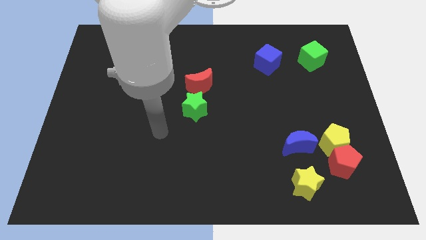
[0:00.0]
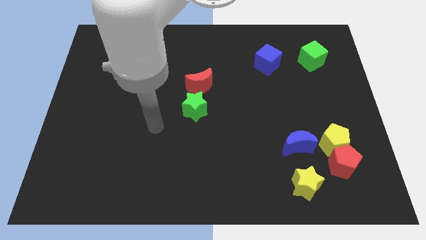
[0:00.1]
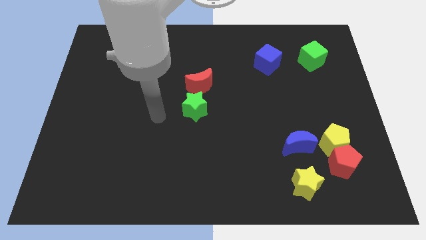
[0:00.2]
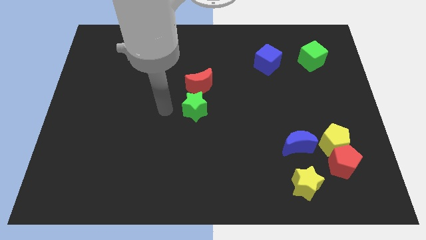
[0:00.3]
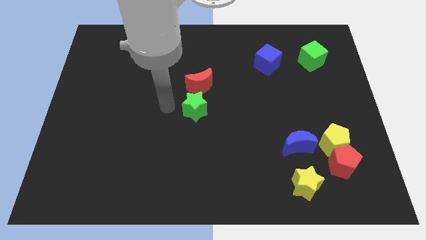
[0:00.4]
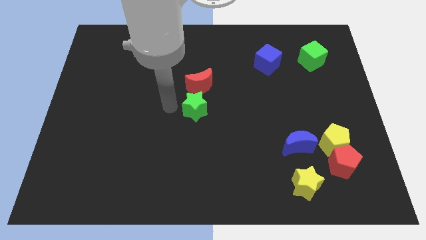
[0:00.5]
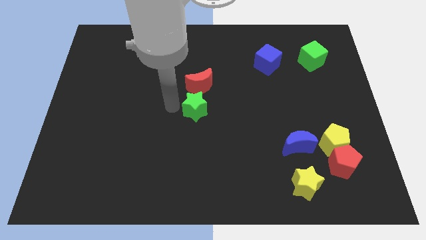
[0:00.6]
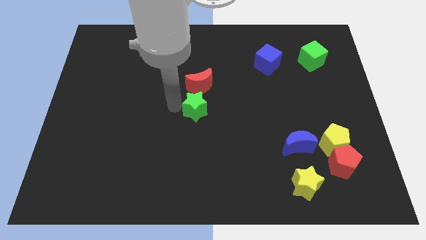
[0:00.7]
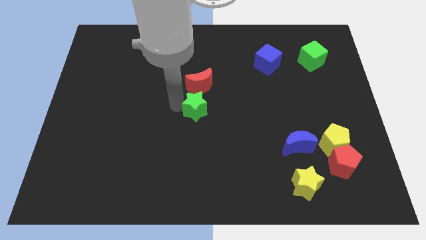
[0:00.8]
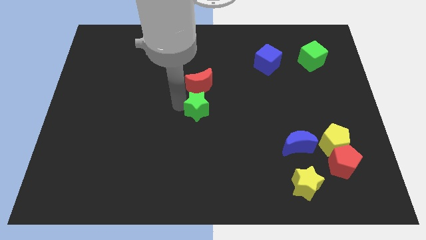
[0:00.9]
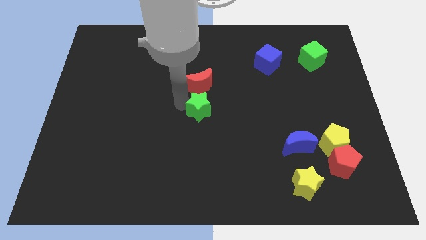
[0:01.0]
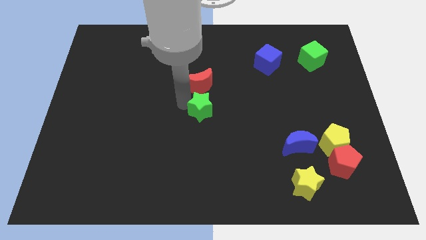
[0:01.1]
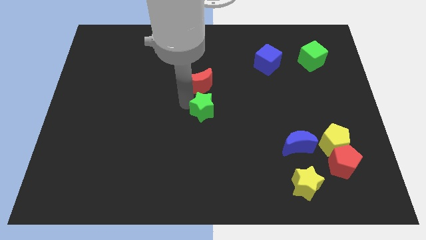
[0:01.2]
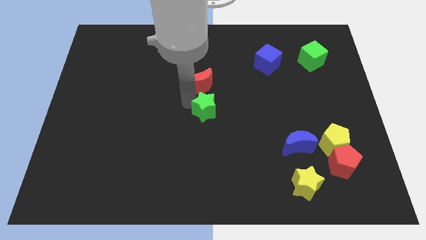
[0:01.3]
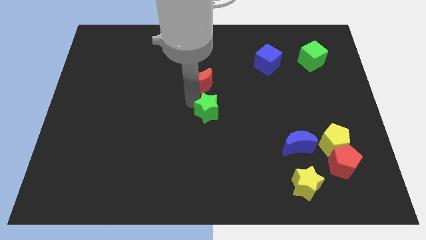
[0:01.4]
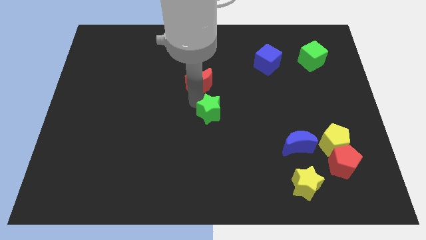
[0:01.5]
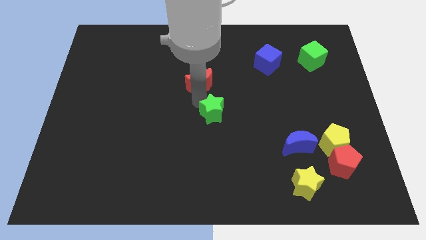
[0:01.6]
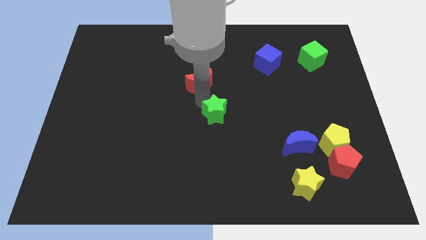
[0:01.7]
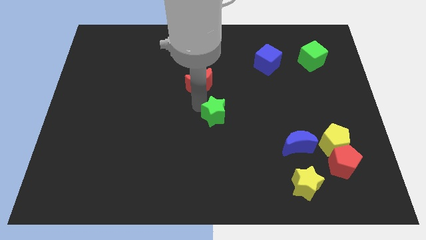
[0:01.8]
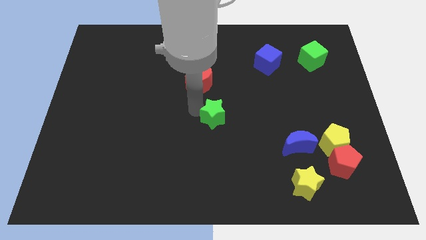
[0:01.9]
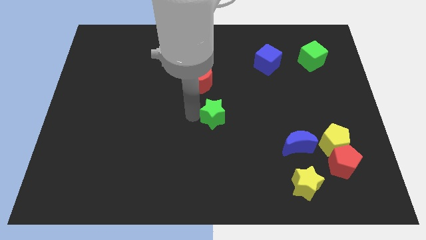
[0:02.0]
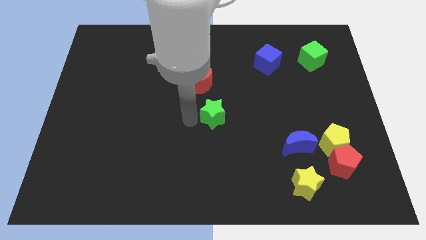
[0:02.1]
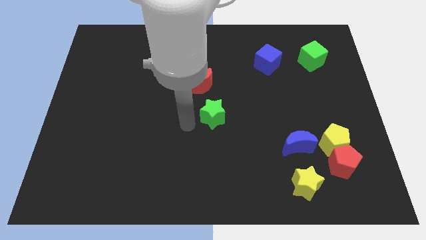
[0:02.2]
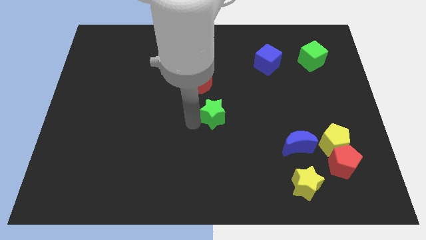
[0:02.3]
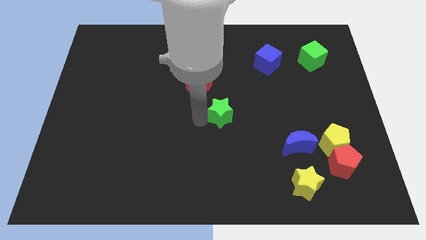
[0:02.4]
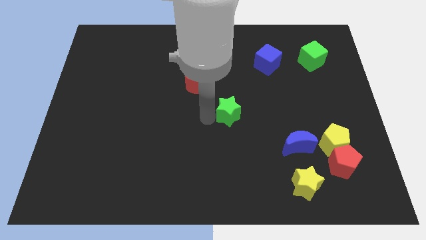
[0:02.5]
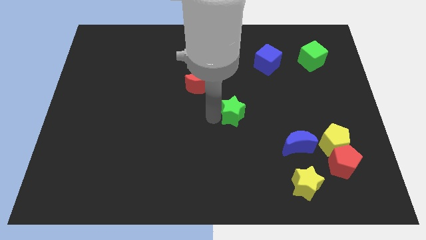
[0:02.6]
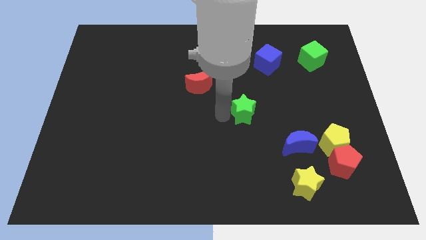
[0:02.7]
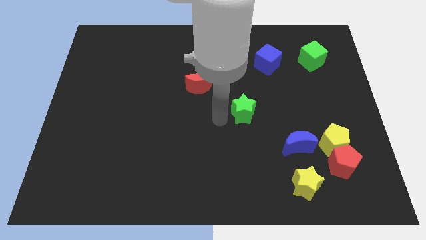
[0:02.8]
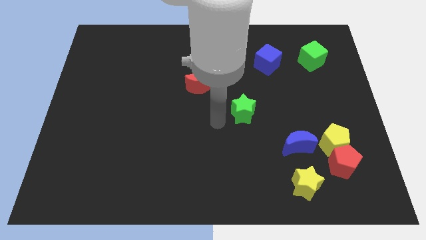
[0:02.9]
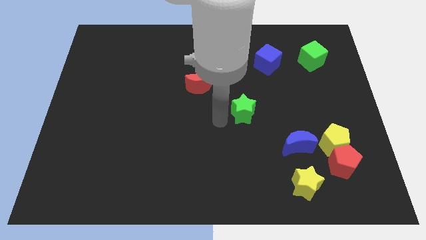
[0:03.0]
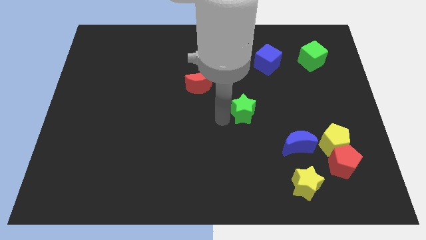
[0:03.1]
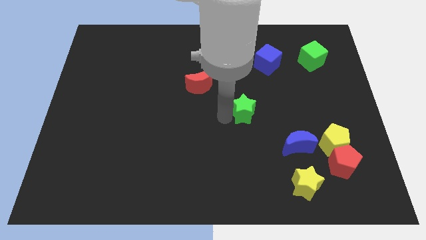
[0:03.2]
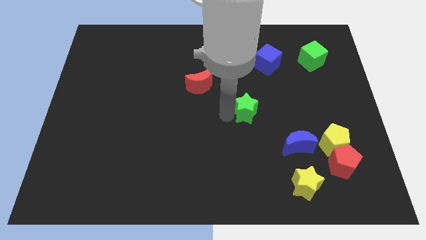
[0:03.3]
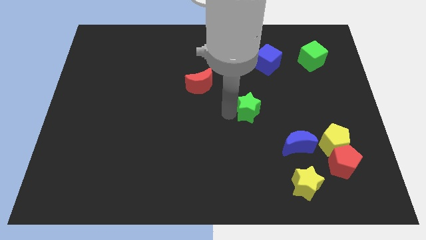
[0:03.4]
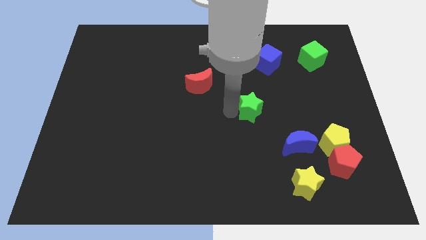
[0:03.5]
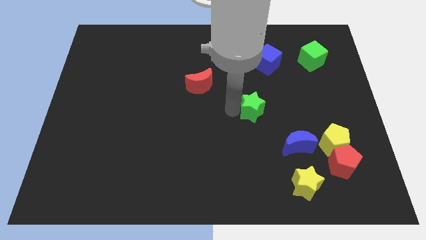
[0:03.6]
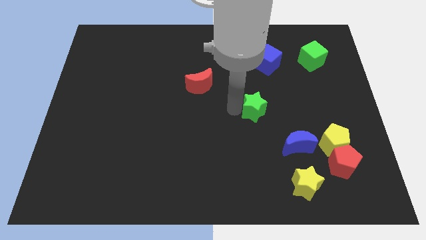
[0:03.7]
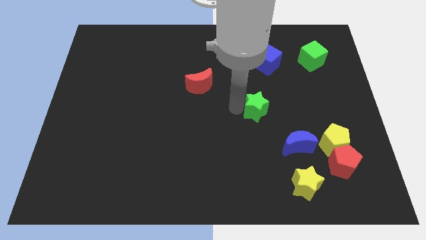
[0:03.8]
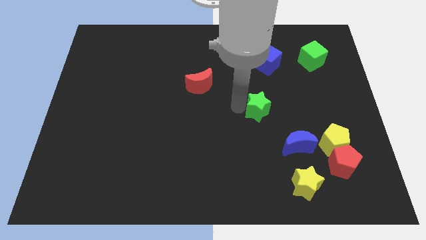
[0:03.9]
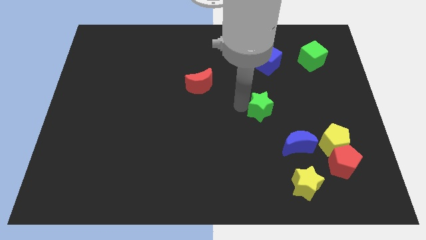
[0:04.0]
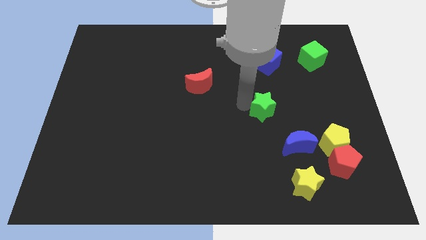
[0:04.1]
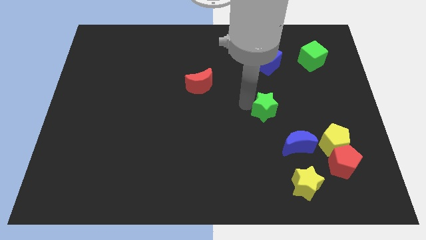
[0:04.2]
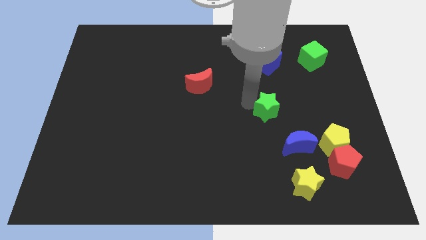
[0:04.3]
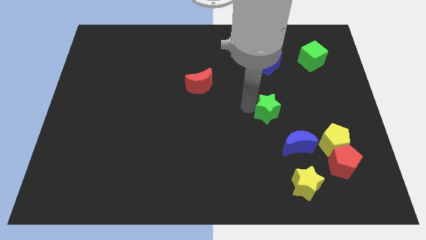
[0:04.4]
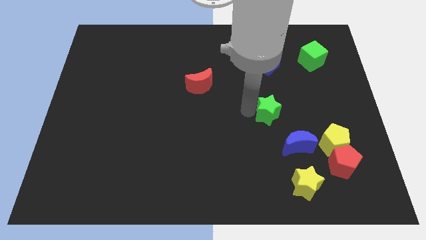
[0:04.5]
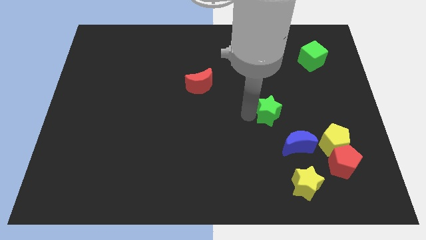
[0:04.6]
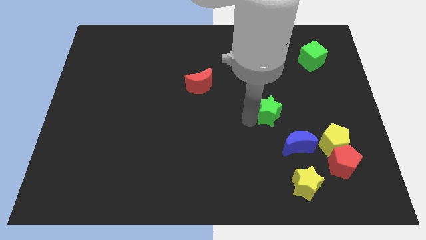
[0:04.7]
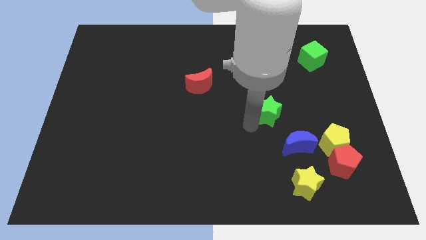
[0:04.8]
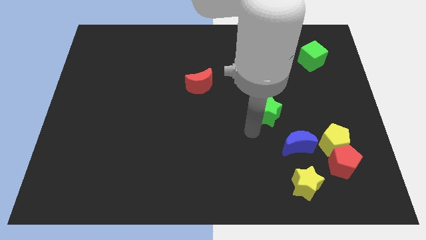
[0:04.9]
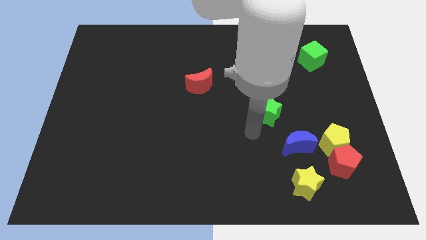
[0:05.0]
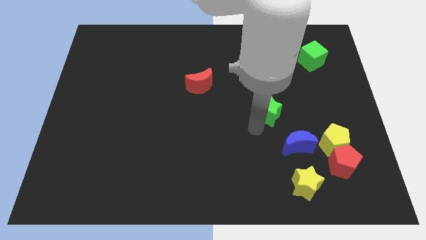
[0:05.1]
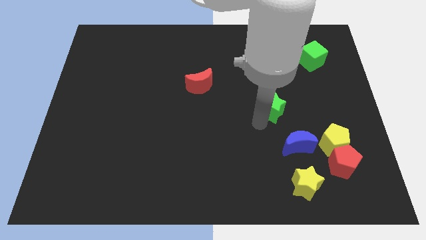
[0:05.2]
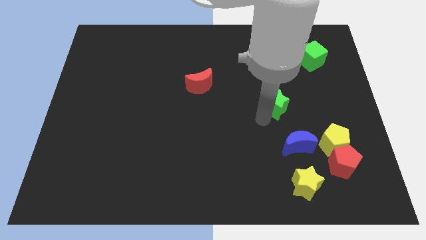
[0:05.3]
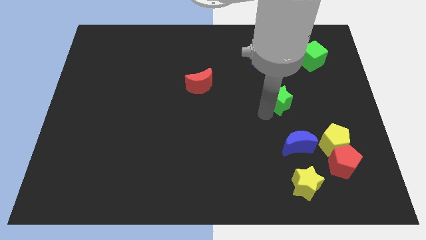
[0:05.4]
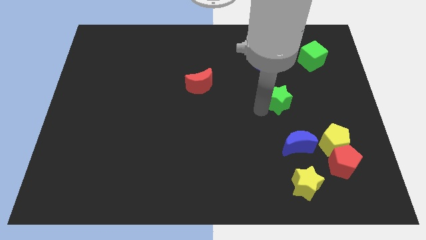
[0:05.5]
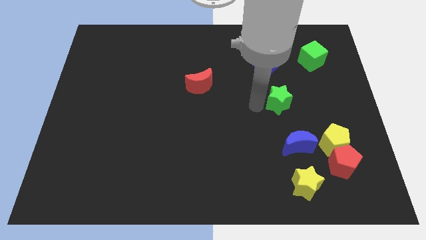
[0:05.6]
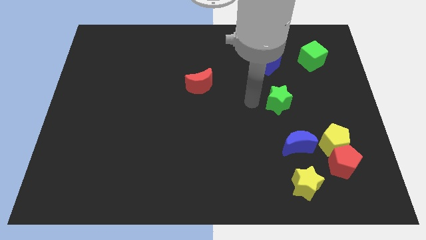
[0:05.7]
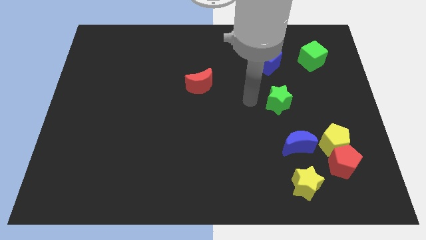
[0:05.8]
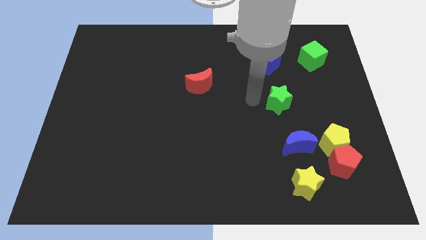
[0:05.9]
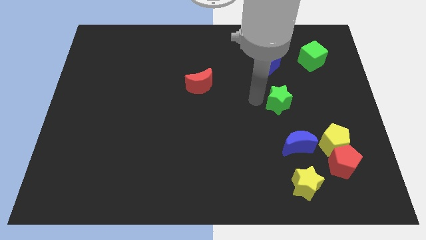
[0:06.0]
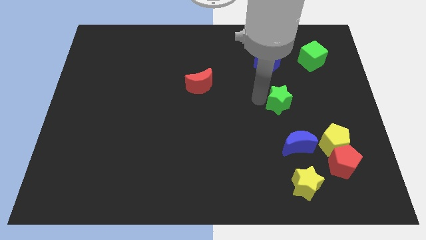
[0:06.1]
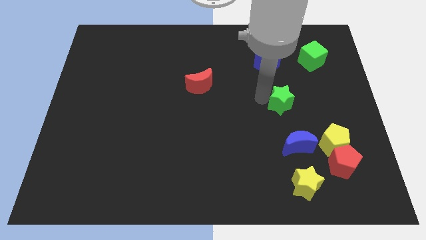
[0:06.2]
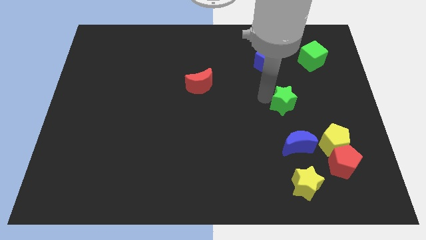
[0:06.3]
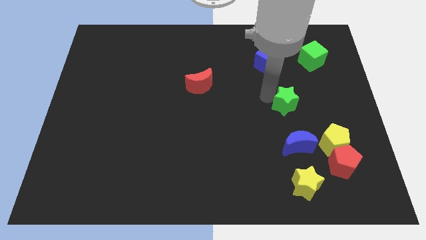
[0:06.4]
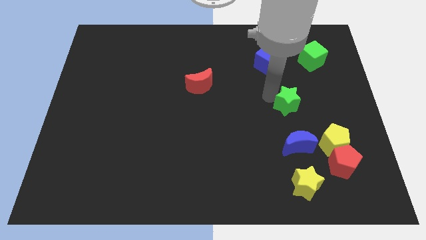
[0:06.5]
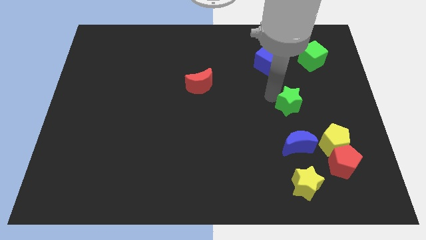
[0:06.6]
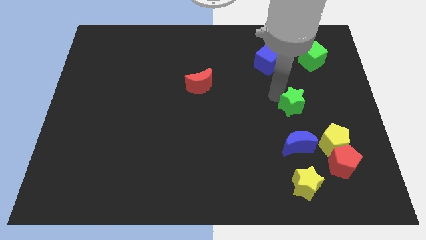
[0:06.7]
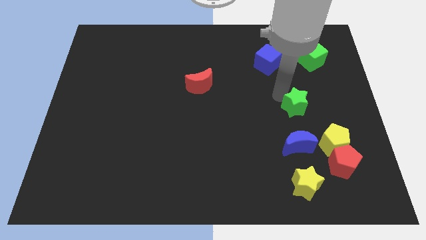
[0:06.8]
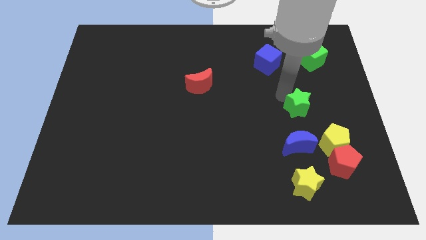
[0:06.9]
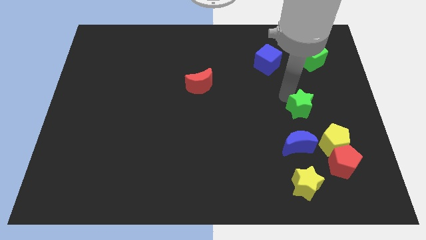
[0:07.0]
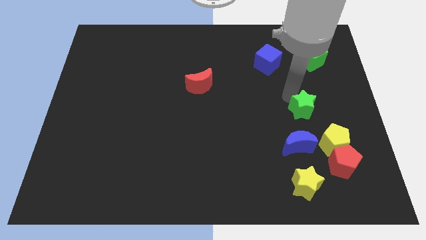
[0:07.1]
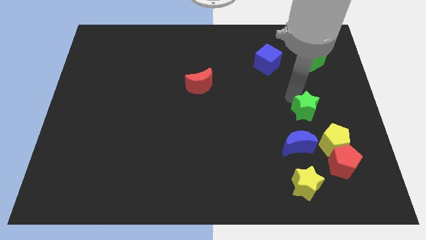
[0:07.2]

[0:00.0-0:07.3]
put the green star to the top side of the yellow pentagon
